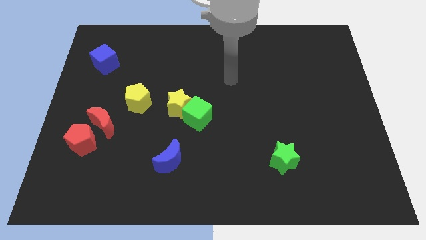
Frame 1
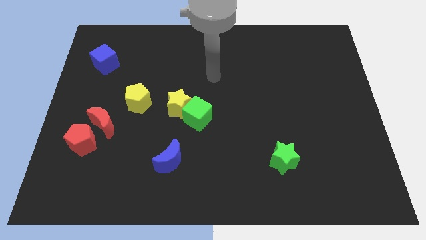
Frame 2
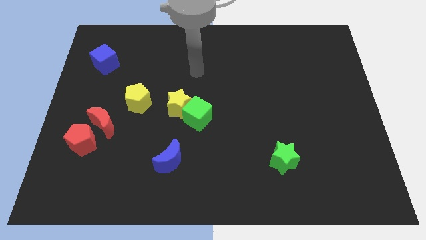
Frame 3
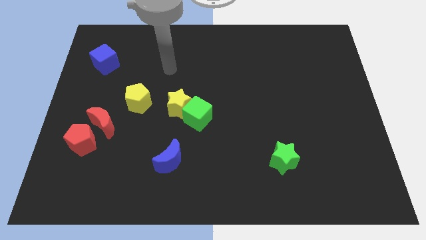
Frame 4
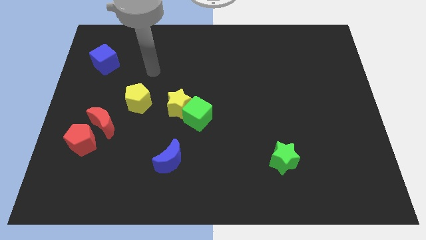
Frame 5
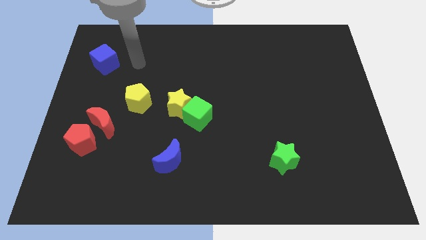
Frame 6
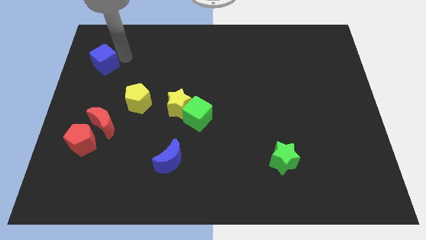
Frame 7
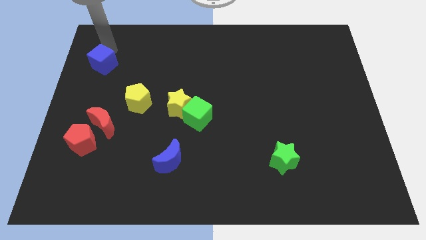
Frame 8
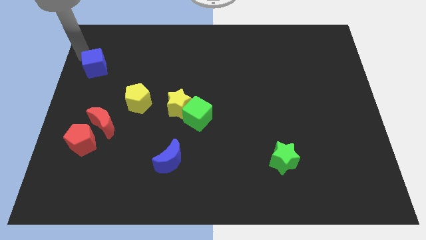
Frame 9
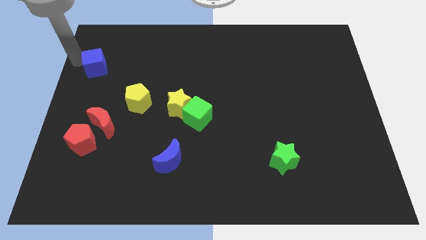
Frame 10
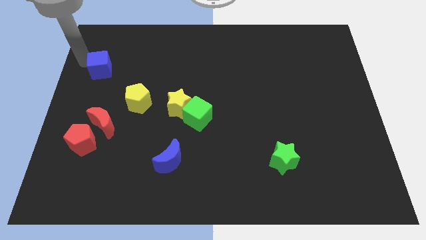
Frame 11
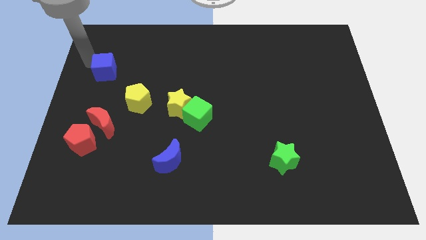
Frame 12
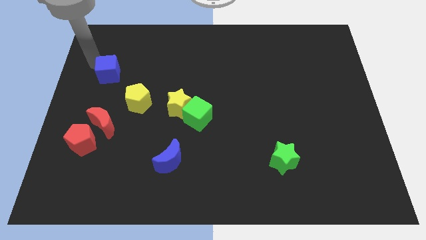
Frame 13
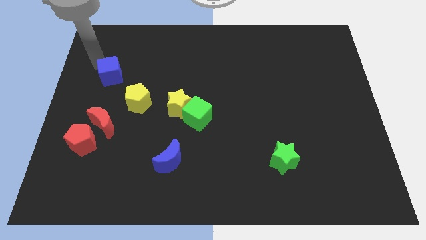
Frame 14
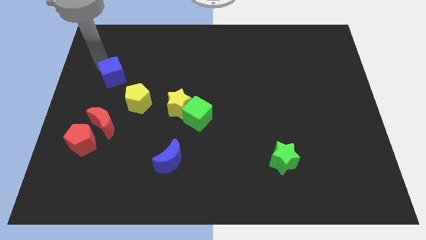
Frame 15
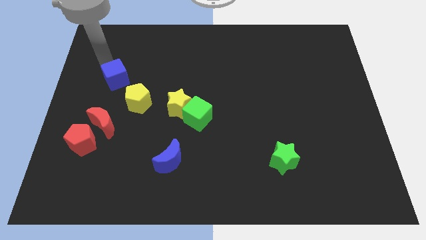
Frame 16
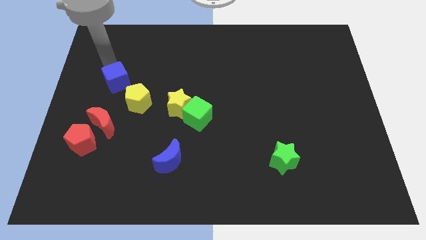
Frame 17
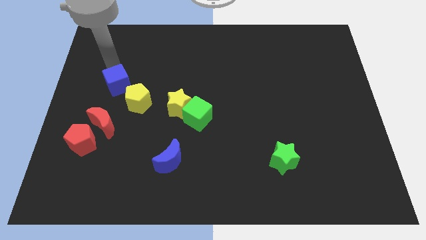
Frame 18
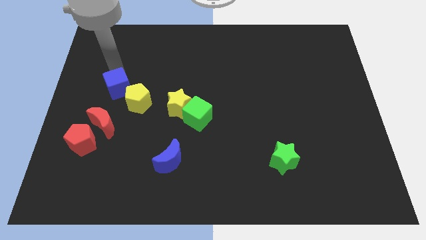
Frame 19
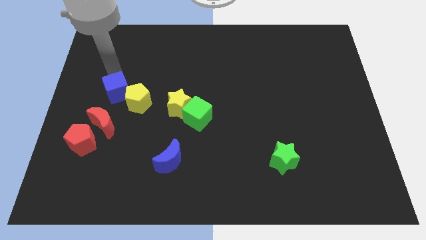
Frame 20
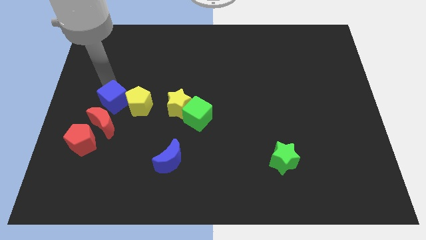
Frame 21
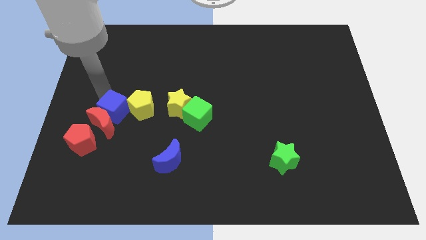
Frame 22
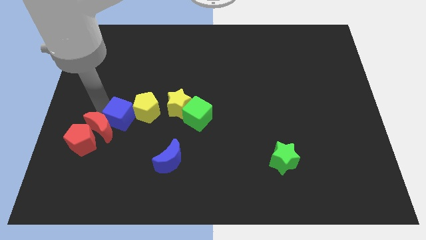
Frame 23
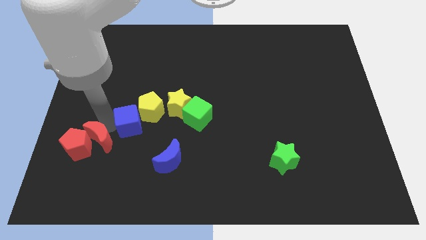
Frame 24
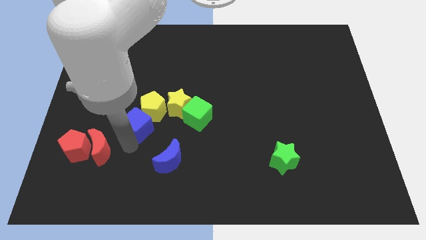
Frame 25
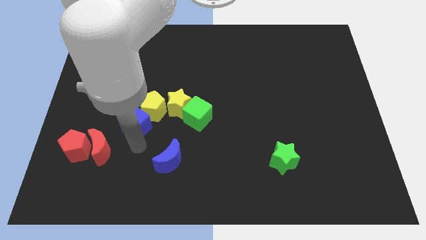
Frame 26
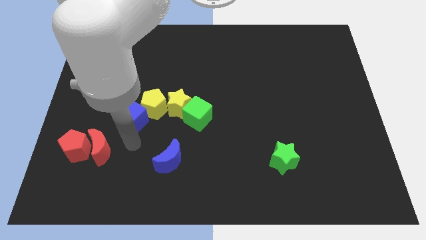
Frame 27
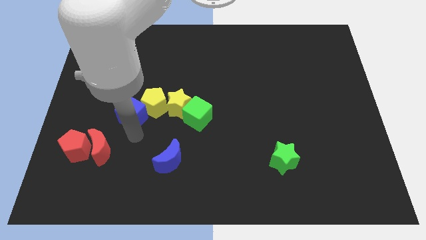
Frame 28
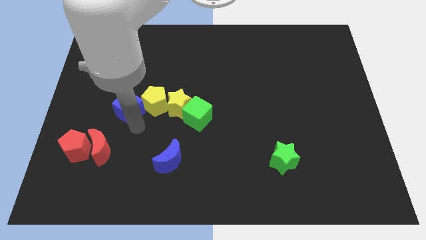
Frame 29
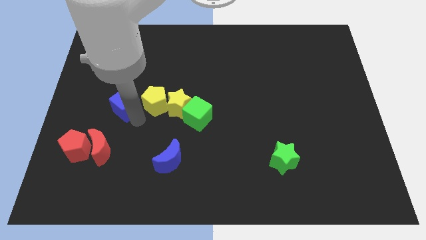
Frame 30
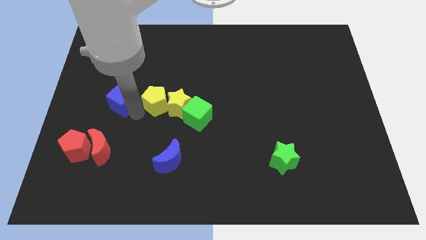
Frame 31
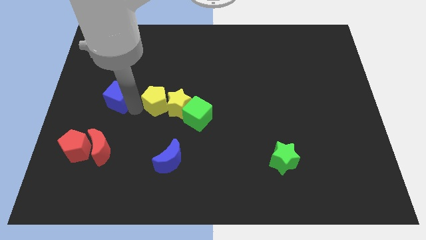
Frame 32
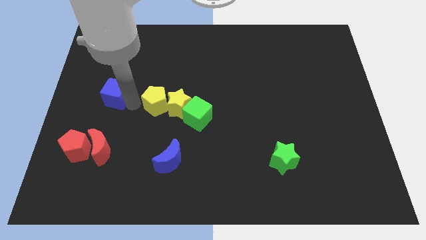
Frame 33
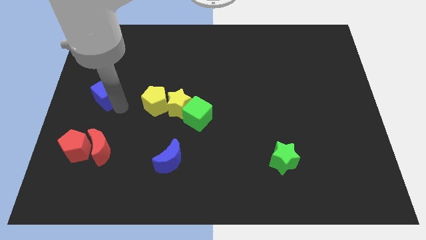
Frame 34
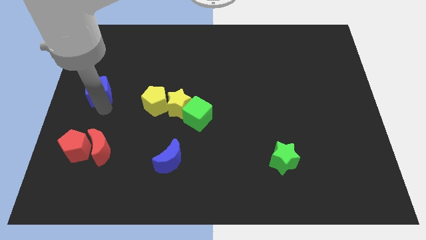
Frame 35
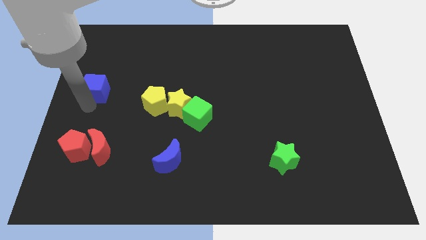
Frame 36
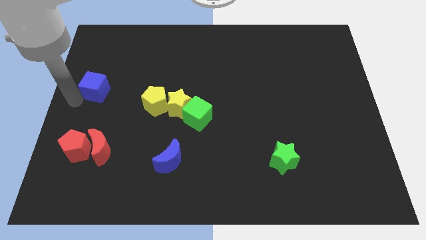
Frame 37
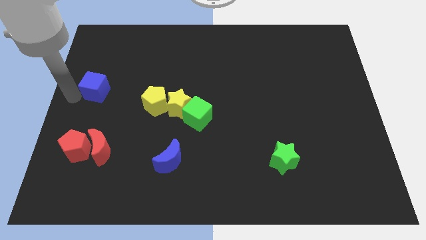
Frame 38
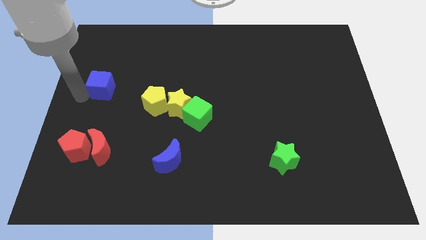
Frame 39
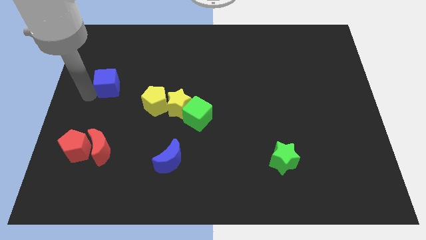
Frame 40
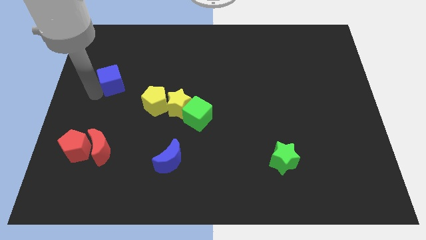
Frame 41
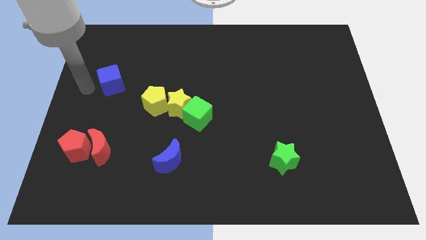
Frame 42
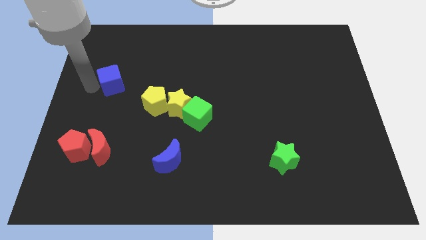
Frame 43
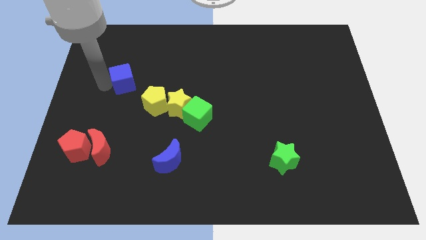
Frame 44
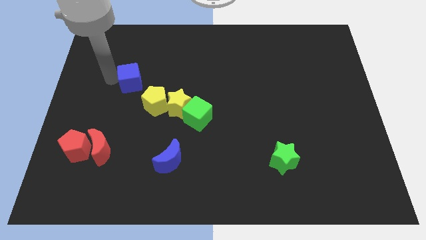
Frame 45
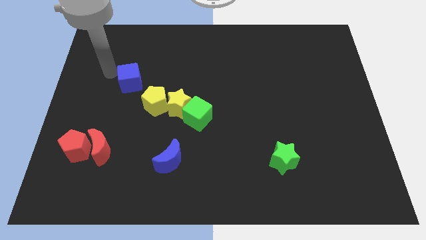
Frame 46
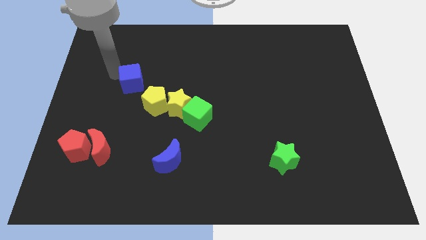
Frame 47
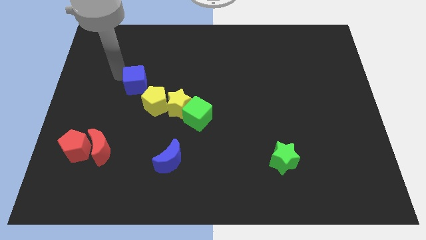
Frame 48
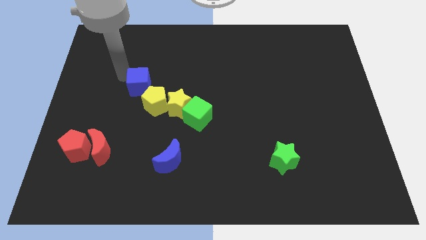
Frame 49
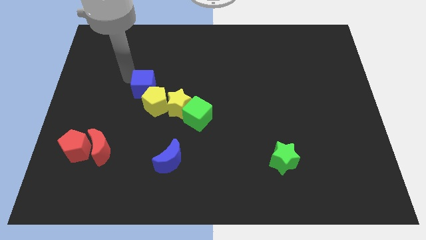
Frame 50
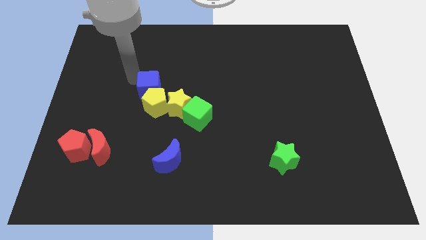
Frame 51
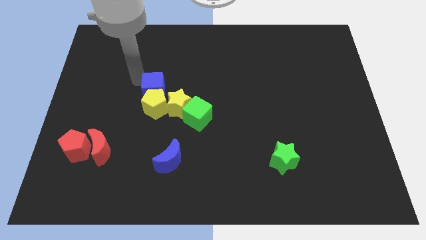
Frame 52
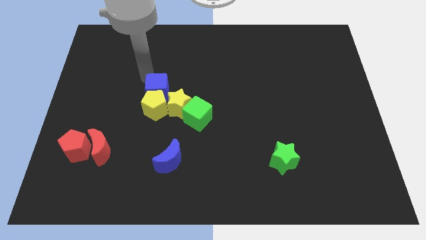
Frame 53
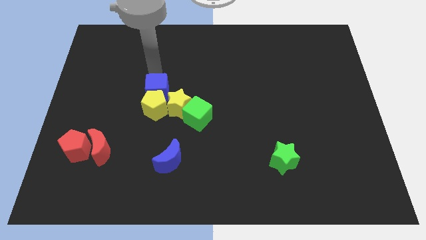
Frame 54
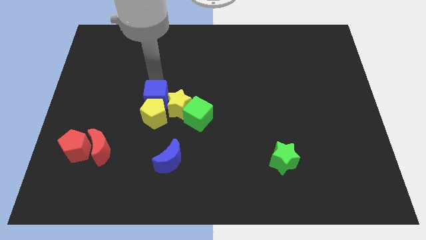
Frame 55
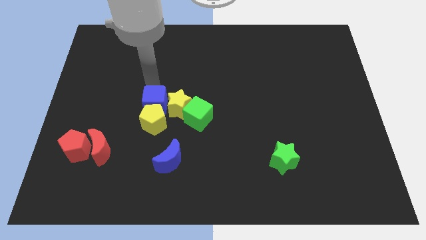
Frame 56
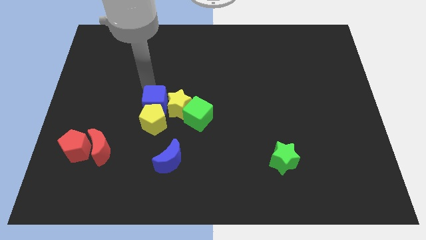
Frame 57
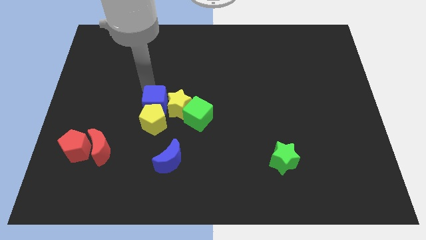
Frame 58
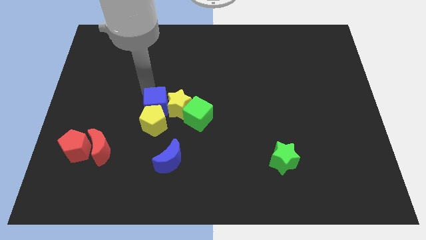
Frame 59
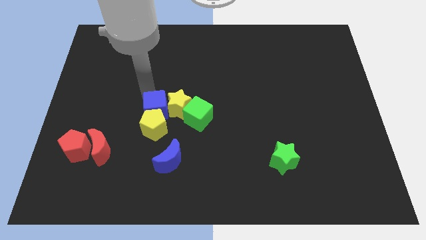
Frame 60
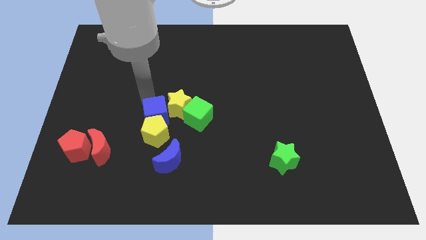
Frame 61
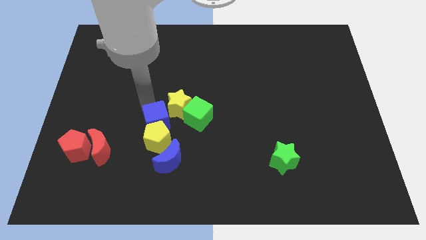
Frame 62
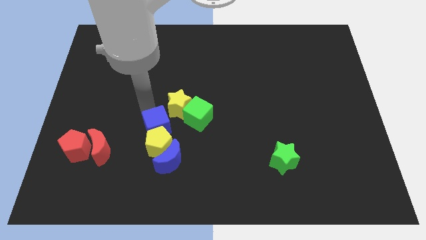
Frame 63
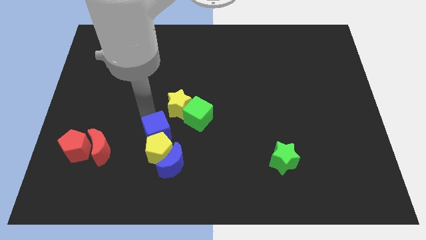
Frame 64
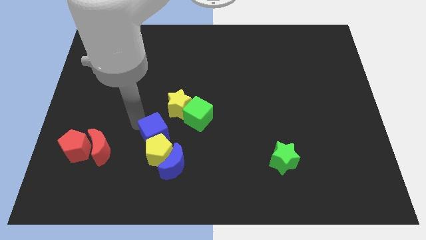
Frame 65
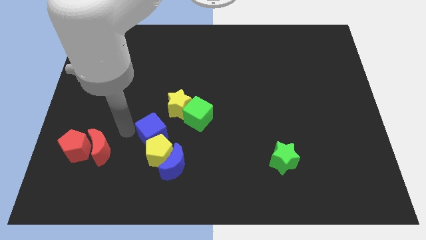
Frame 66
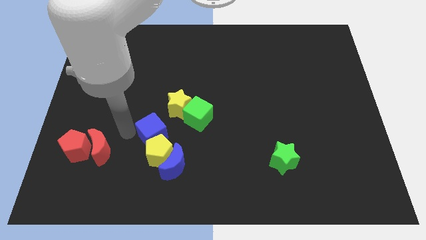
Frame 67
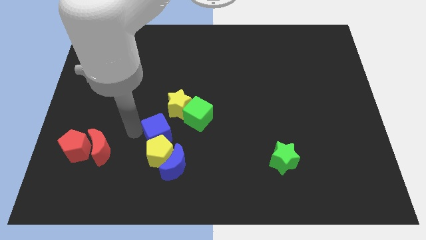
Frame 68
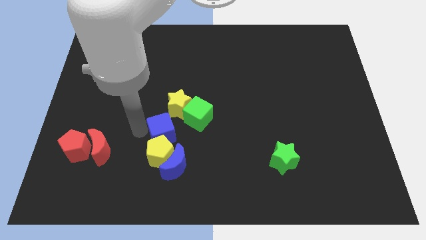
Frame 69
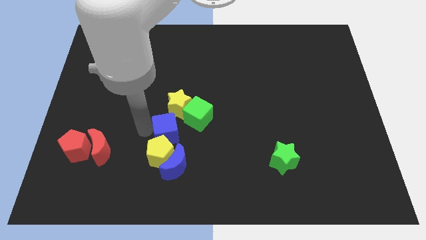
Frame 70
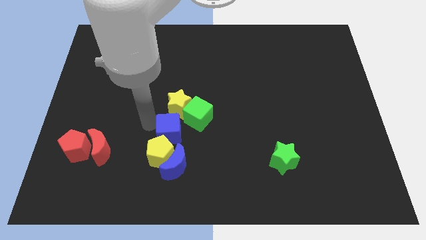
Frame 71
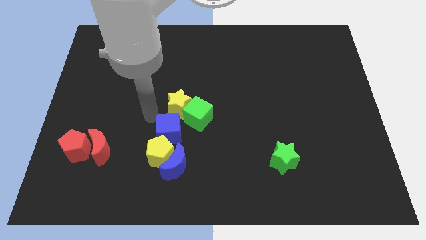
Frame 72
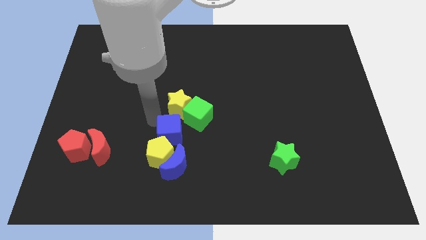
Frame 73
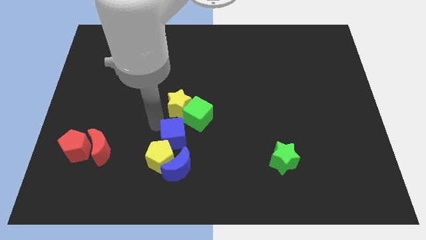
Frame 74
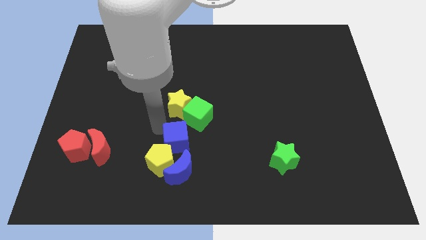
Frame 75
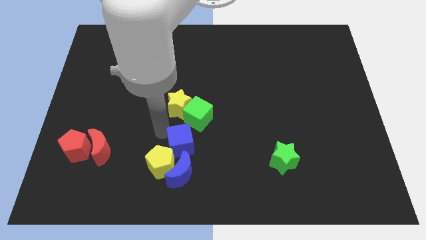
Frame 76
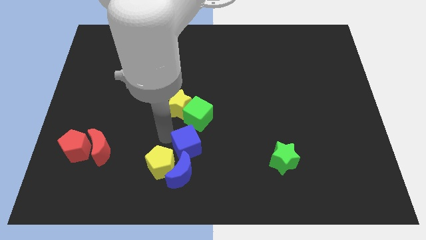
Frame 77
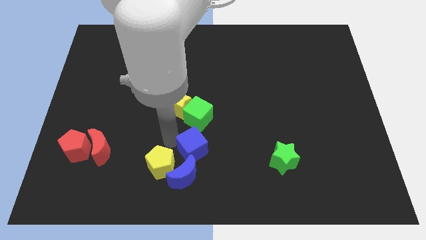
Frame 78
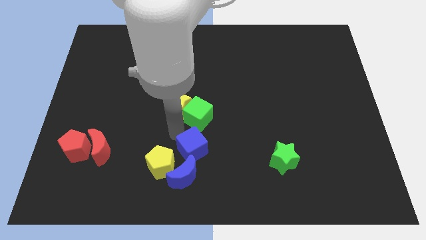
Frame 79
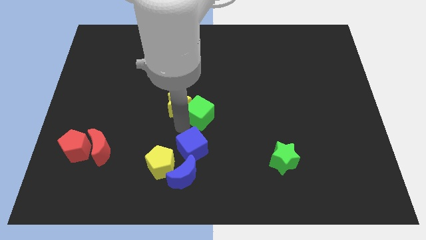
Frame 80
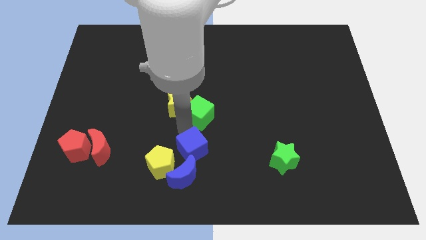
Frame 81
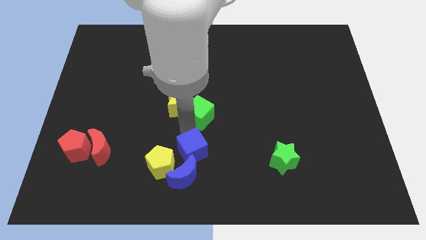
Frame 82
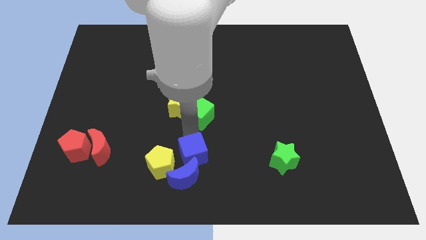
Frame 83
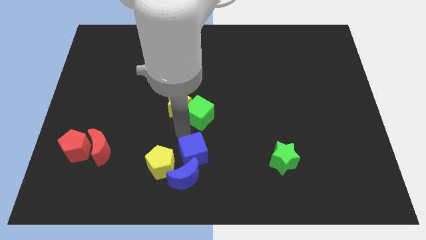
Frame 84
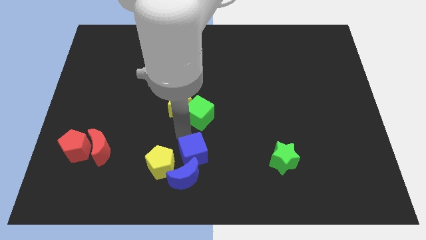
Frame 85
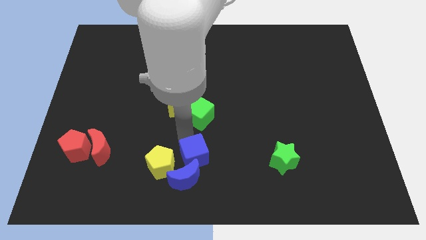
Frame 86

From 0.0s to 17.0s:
move the blue cube to the bottom
